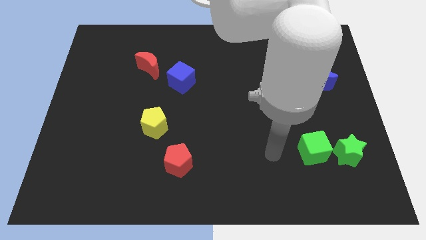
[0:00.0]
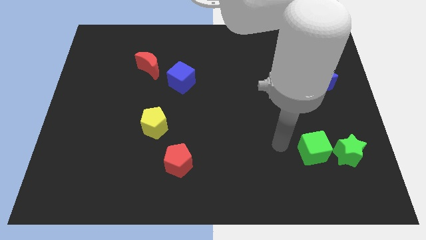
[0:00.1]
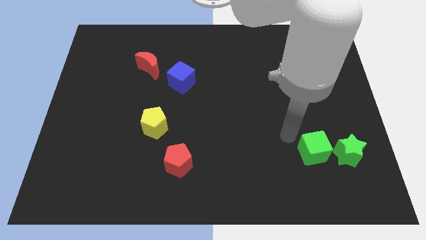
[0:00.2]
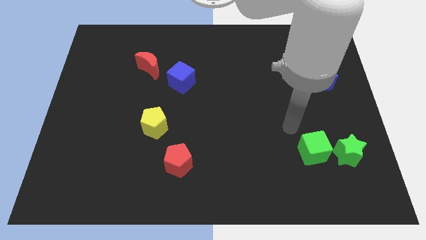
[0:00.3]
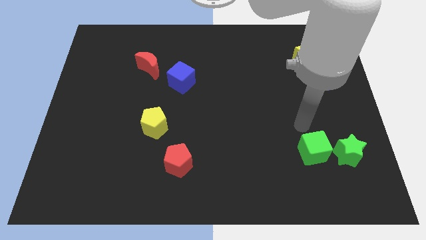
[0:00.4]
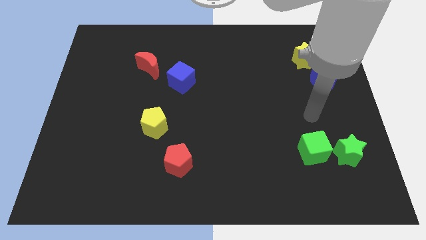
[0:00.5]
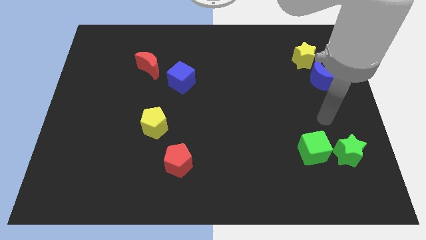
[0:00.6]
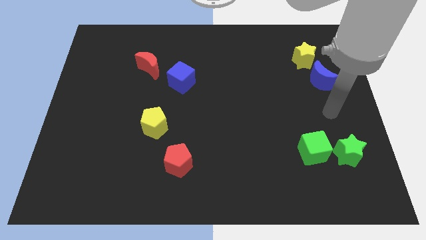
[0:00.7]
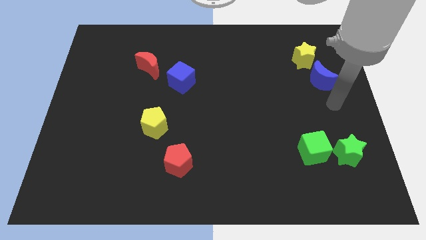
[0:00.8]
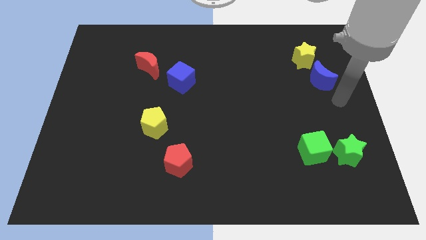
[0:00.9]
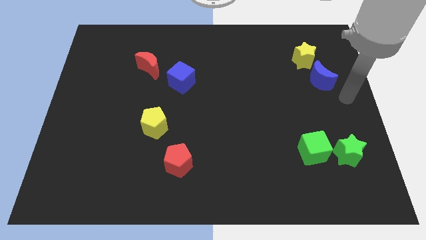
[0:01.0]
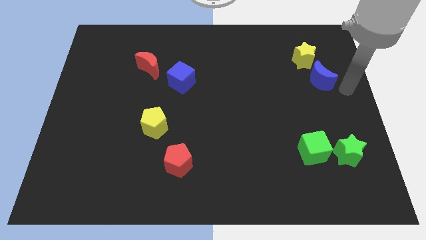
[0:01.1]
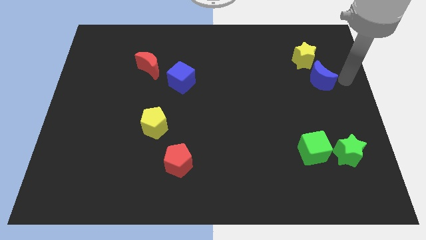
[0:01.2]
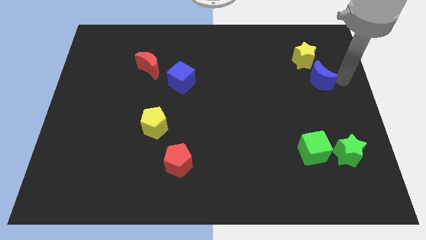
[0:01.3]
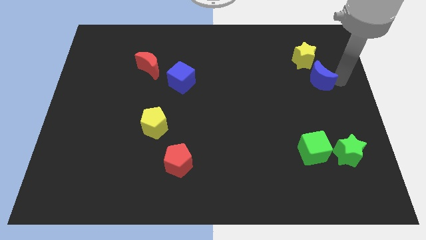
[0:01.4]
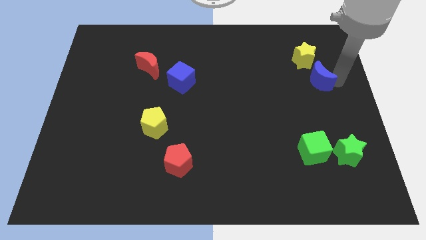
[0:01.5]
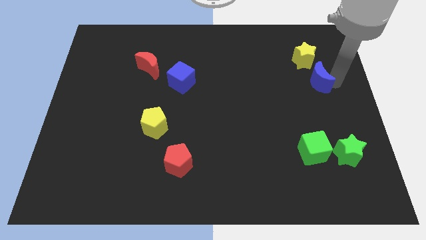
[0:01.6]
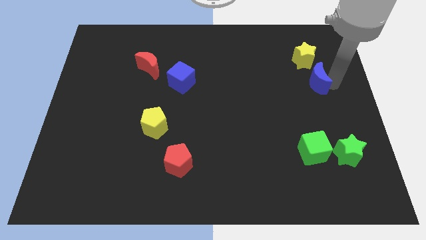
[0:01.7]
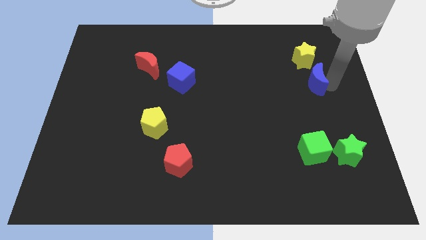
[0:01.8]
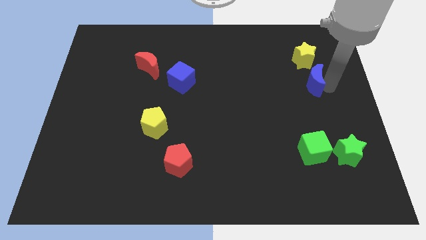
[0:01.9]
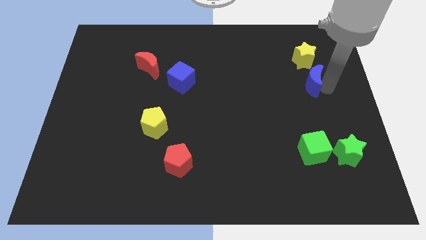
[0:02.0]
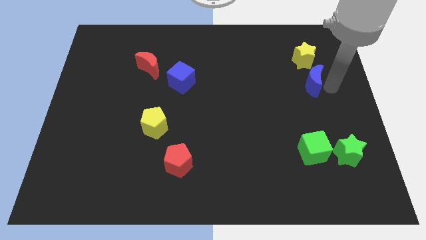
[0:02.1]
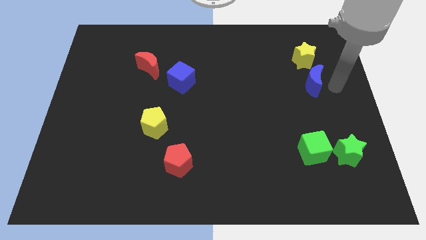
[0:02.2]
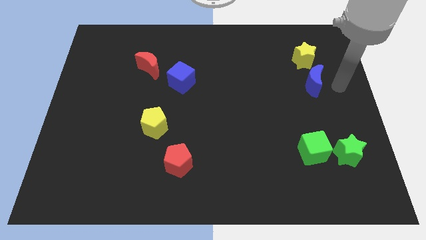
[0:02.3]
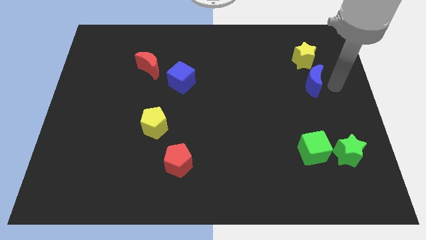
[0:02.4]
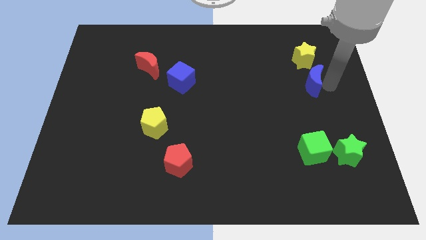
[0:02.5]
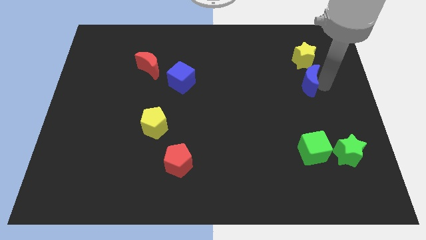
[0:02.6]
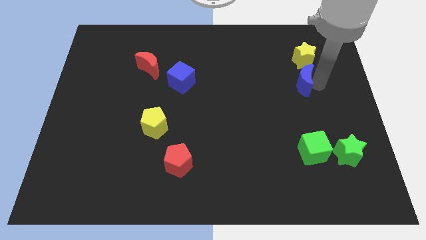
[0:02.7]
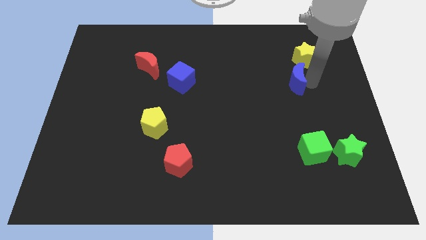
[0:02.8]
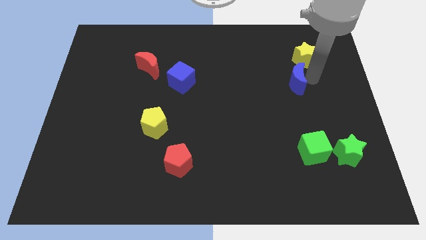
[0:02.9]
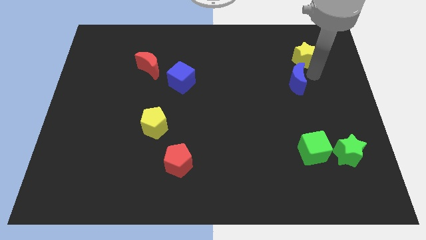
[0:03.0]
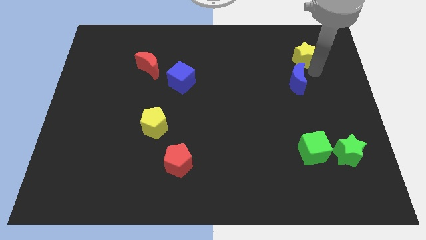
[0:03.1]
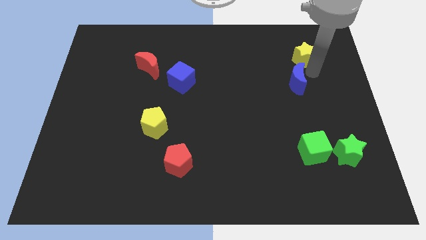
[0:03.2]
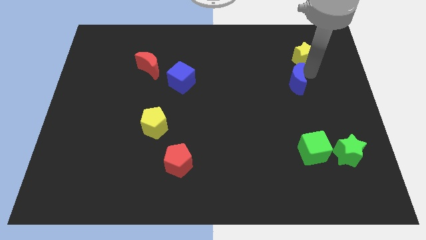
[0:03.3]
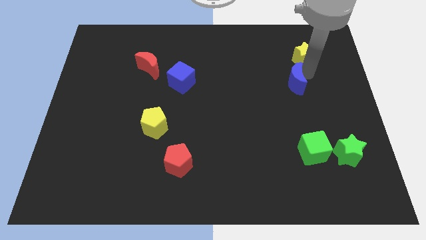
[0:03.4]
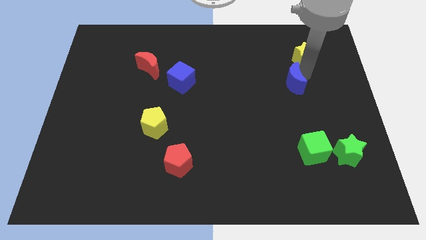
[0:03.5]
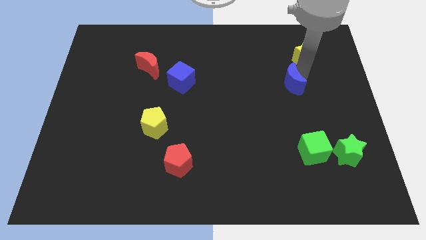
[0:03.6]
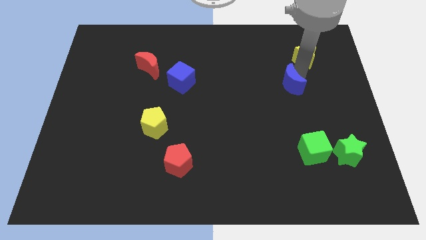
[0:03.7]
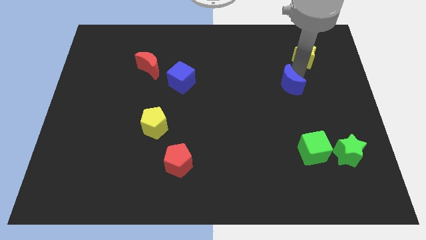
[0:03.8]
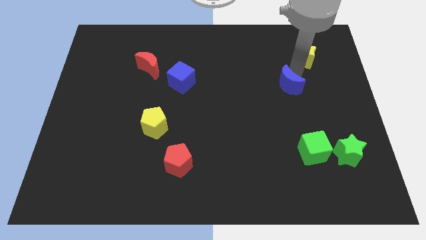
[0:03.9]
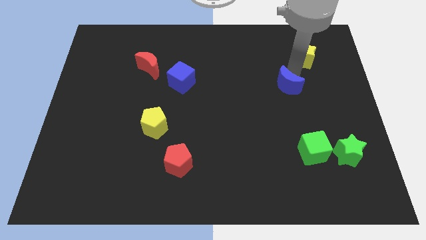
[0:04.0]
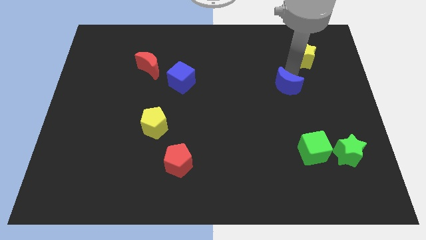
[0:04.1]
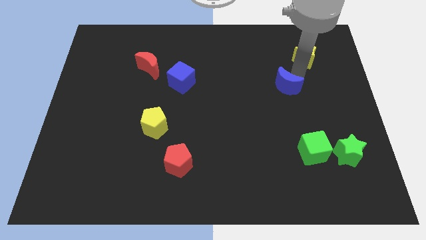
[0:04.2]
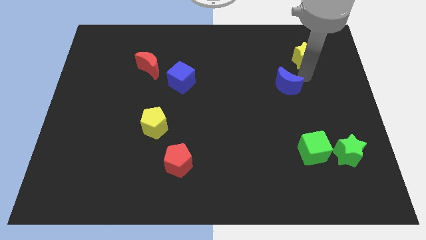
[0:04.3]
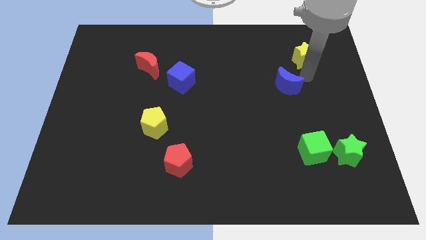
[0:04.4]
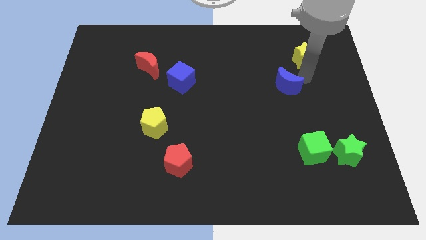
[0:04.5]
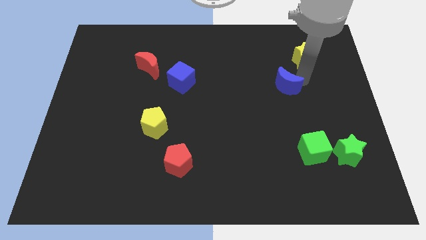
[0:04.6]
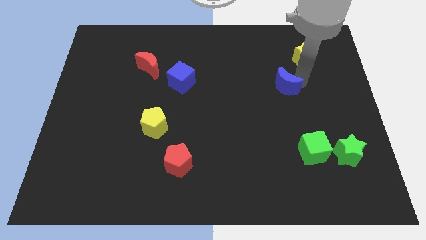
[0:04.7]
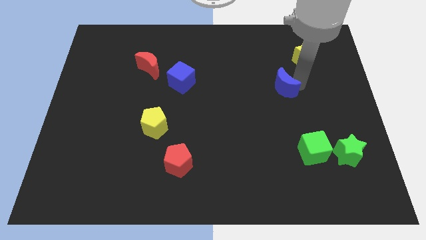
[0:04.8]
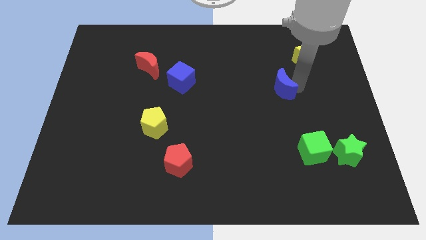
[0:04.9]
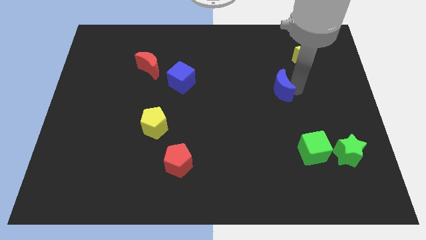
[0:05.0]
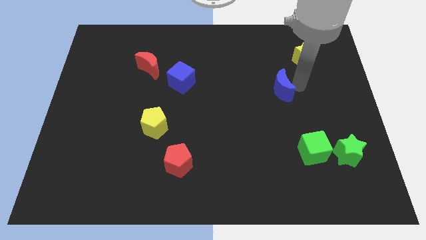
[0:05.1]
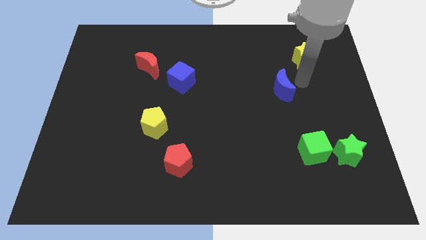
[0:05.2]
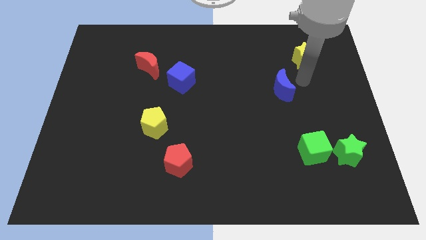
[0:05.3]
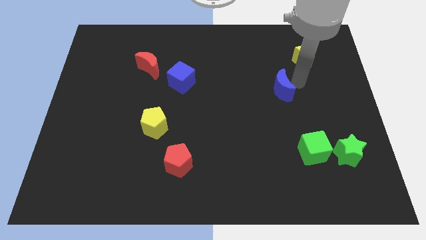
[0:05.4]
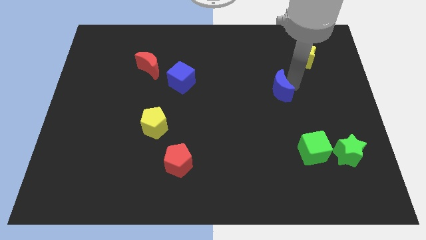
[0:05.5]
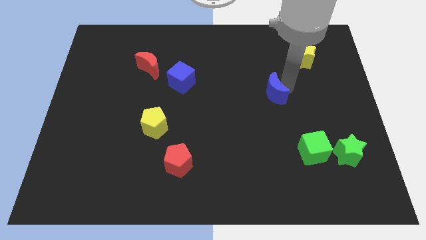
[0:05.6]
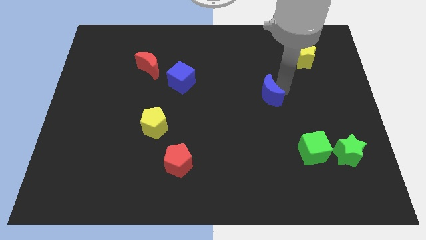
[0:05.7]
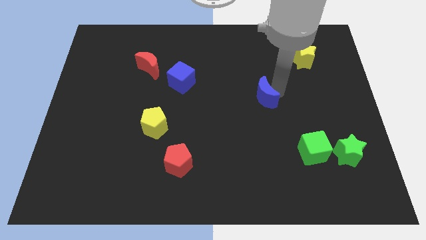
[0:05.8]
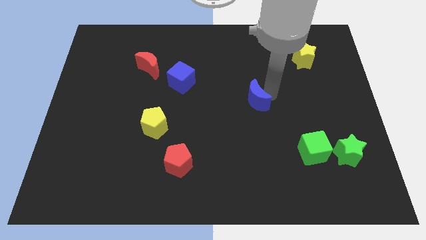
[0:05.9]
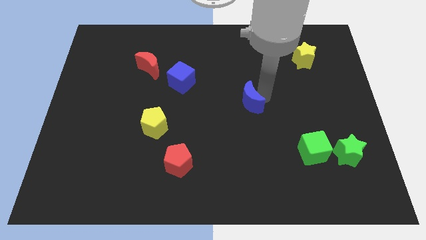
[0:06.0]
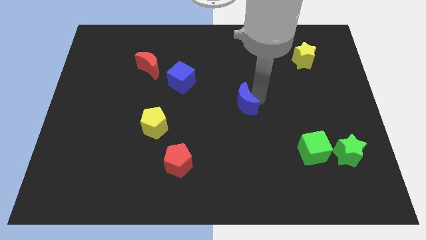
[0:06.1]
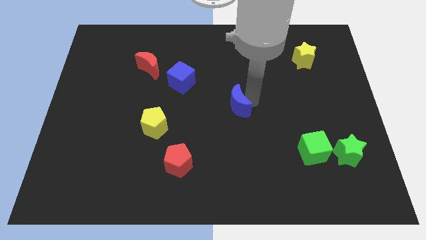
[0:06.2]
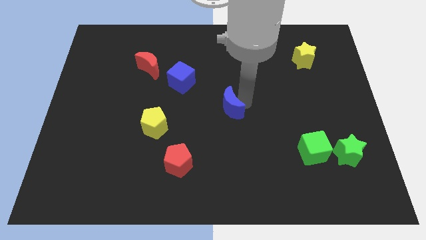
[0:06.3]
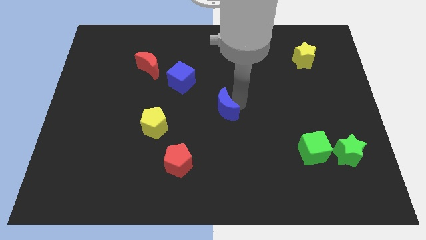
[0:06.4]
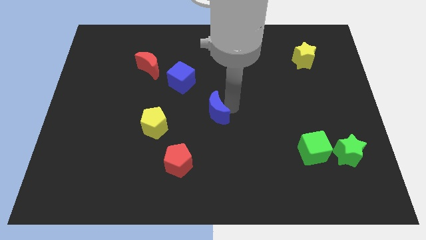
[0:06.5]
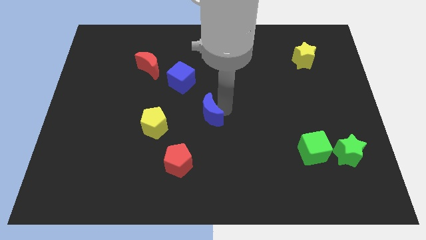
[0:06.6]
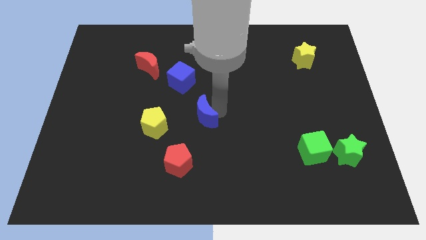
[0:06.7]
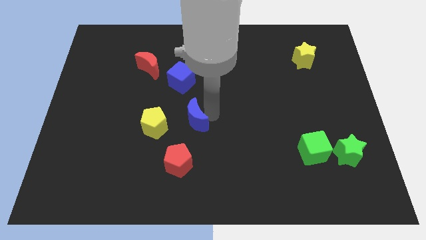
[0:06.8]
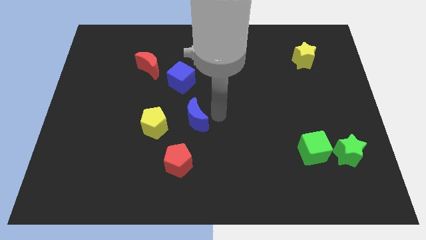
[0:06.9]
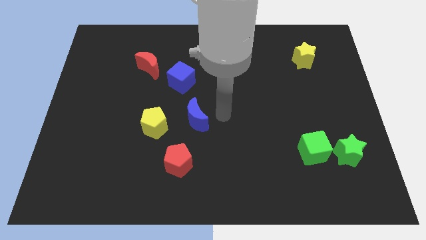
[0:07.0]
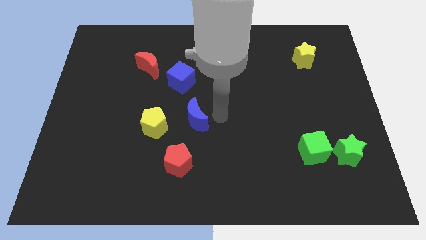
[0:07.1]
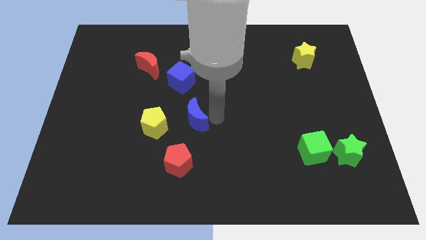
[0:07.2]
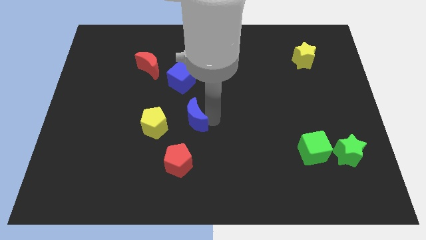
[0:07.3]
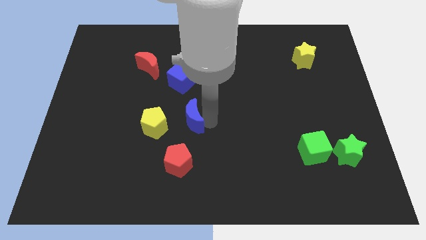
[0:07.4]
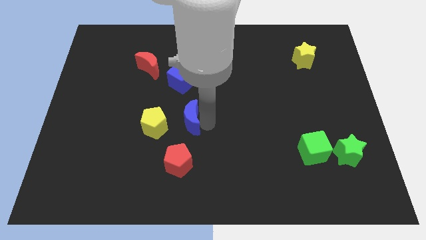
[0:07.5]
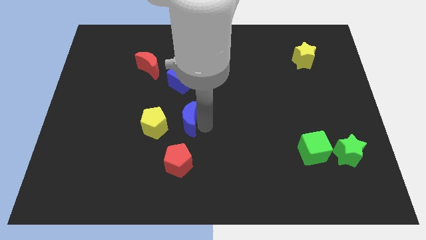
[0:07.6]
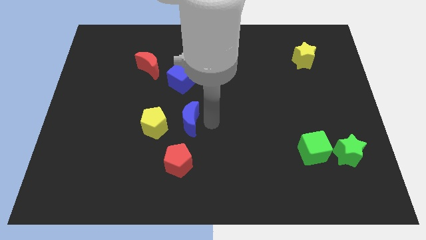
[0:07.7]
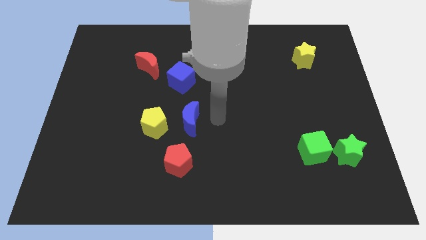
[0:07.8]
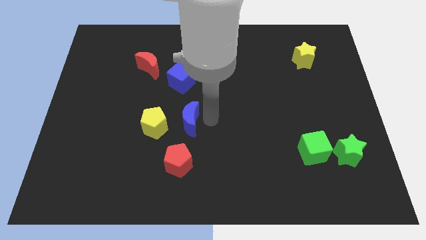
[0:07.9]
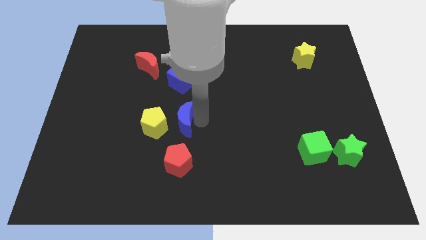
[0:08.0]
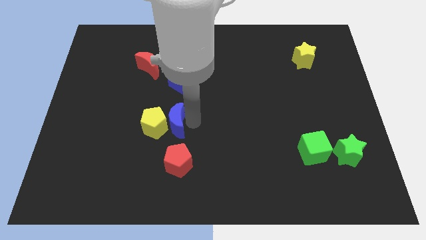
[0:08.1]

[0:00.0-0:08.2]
push the blue moon close to the yellow pentagon
